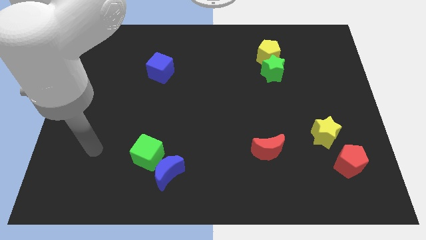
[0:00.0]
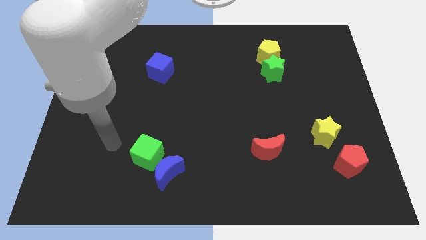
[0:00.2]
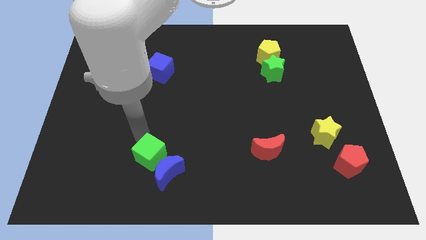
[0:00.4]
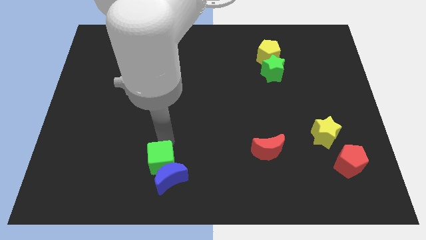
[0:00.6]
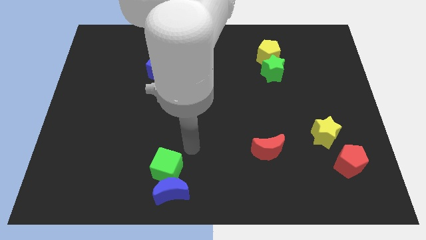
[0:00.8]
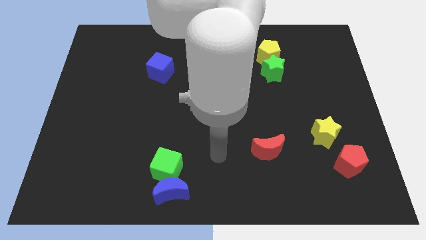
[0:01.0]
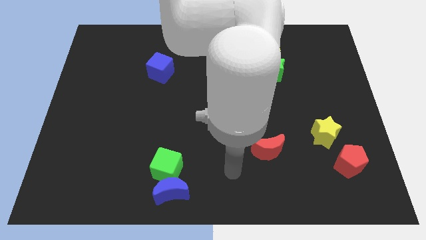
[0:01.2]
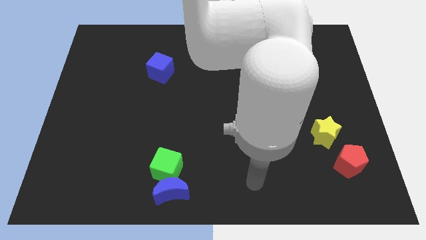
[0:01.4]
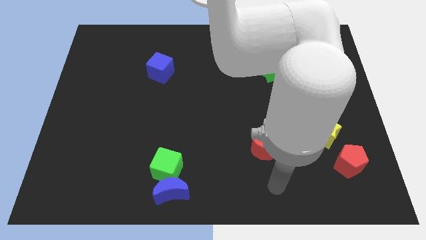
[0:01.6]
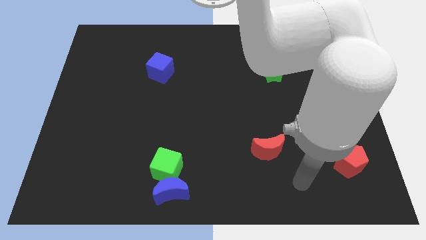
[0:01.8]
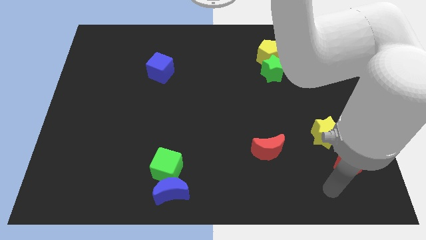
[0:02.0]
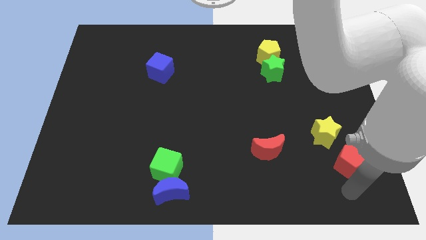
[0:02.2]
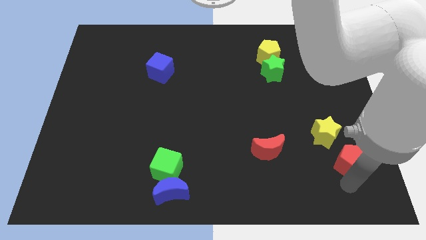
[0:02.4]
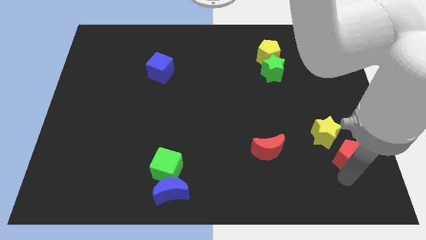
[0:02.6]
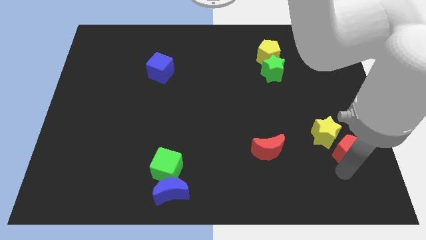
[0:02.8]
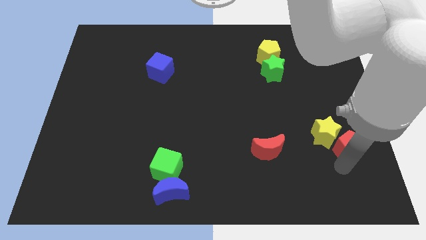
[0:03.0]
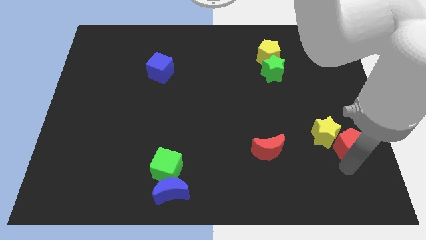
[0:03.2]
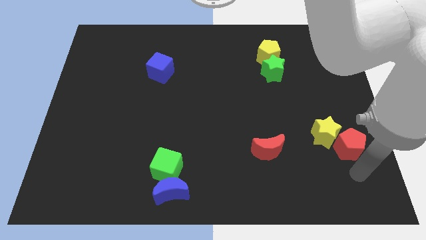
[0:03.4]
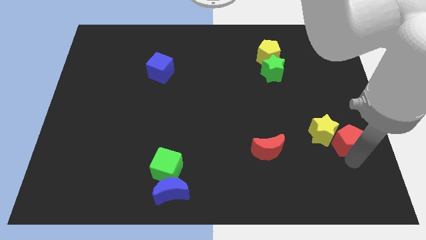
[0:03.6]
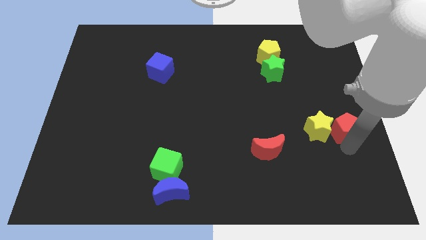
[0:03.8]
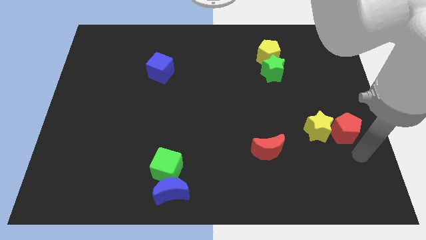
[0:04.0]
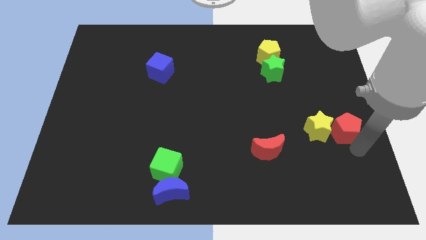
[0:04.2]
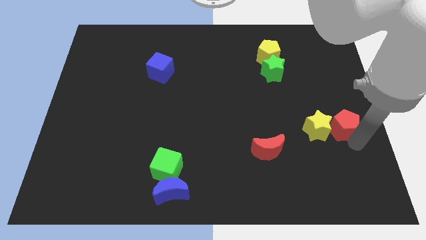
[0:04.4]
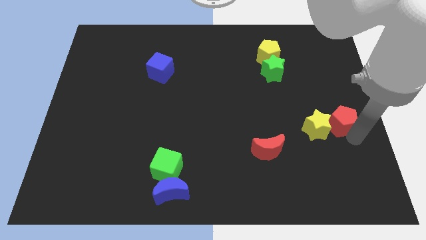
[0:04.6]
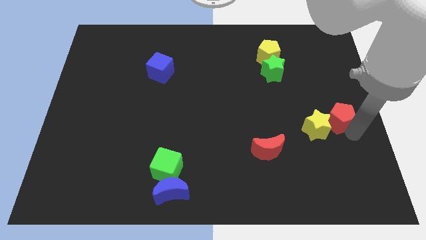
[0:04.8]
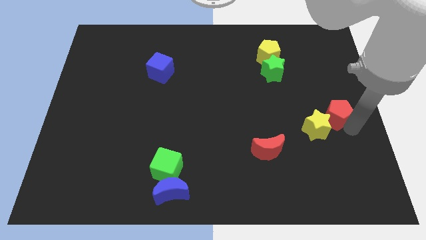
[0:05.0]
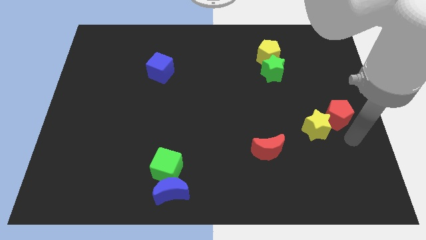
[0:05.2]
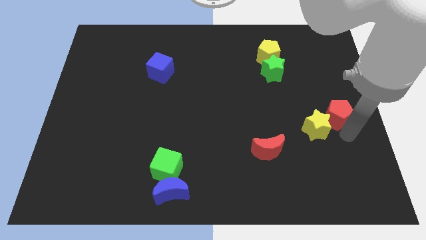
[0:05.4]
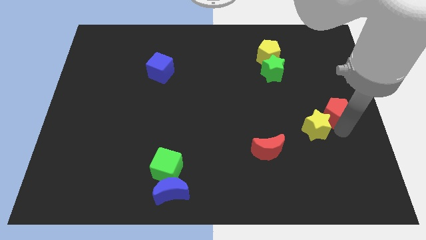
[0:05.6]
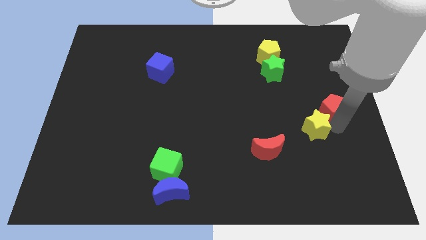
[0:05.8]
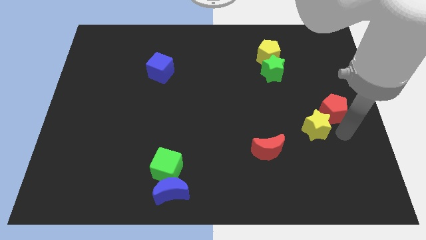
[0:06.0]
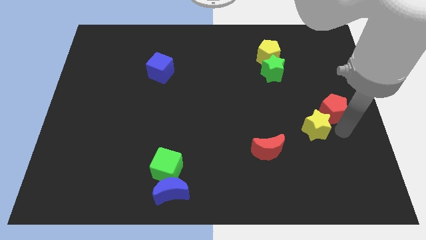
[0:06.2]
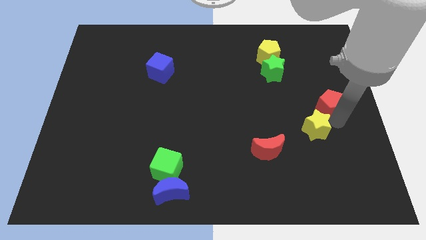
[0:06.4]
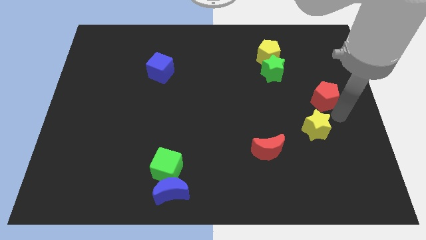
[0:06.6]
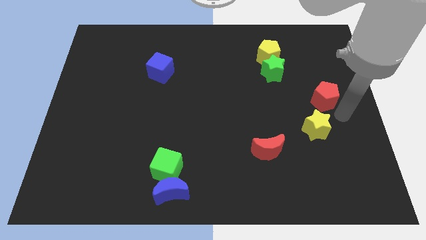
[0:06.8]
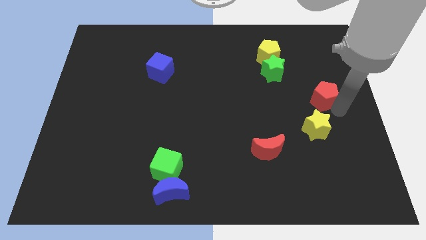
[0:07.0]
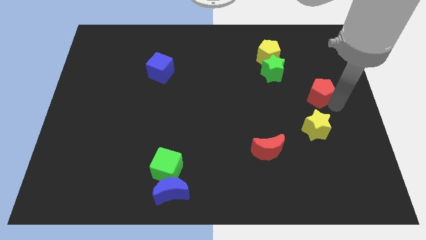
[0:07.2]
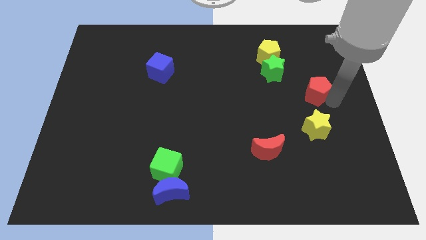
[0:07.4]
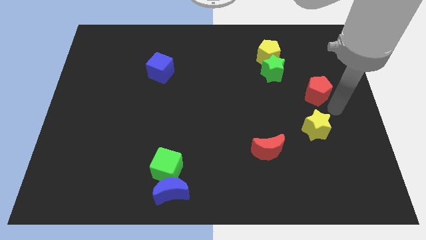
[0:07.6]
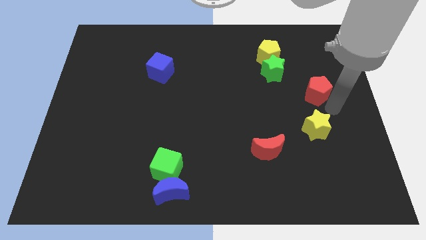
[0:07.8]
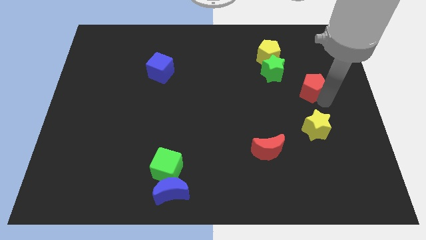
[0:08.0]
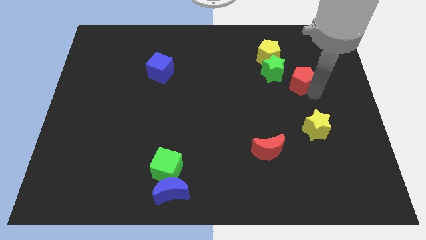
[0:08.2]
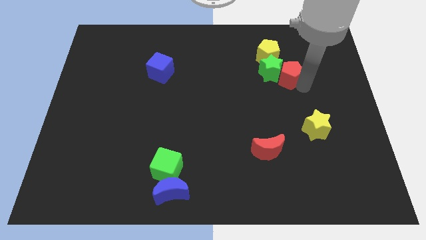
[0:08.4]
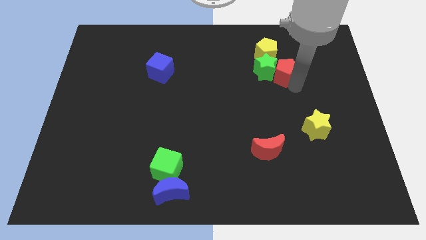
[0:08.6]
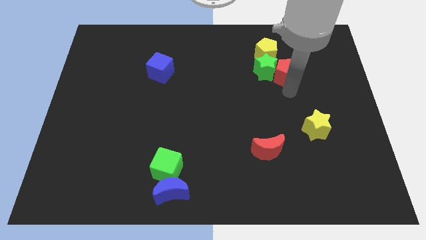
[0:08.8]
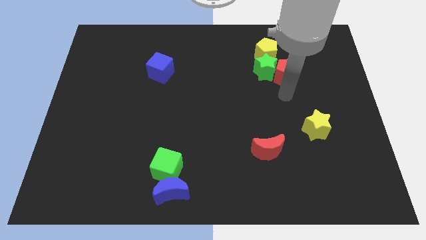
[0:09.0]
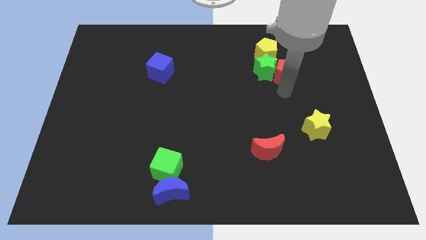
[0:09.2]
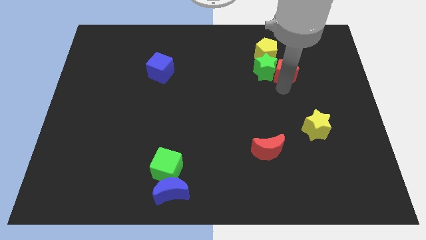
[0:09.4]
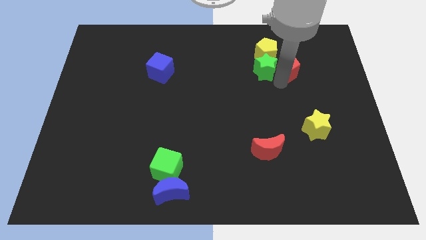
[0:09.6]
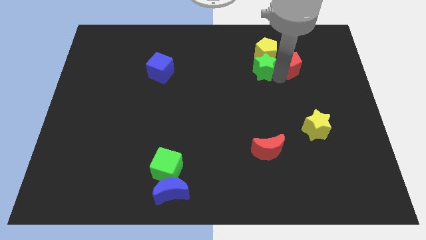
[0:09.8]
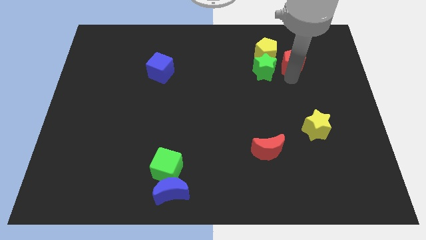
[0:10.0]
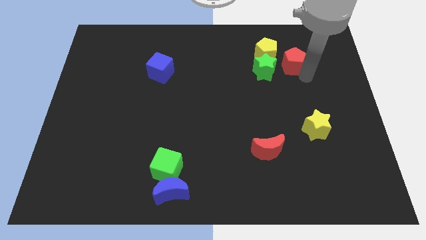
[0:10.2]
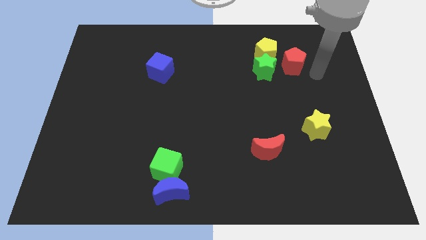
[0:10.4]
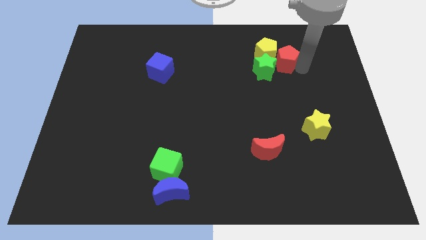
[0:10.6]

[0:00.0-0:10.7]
move the red pentagon next to the yellow pentagon

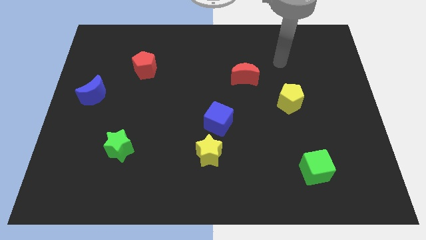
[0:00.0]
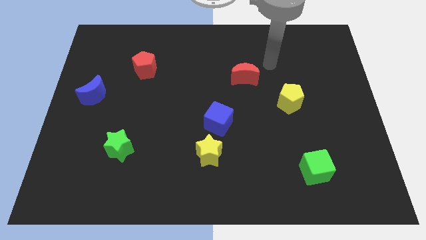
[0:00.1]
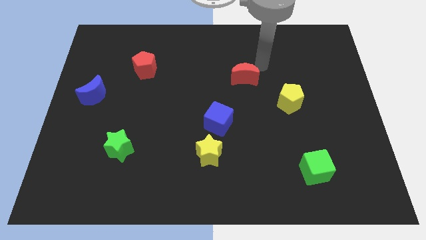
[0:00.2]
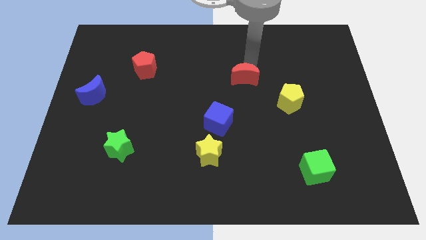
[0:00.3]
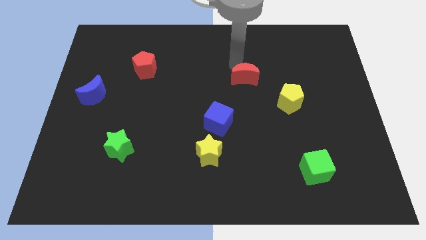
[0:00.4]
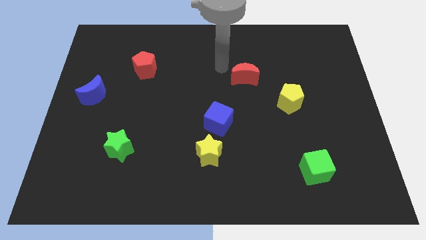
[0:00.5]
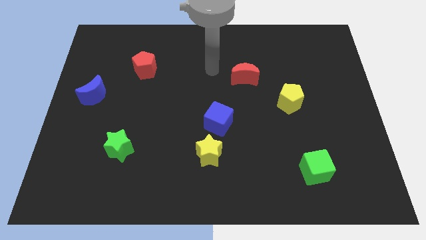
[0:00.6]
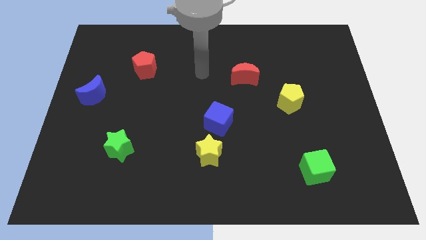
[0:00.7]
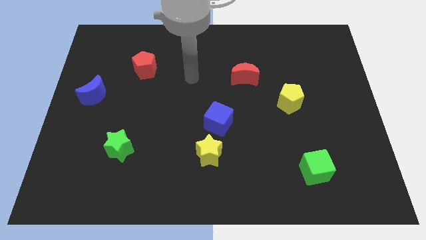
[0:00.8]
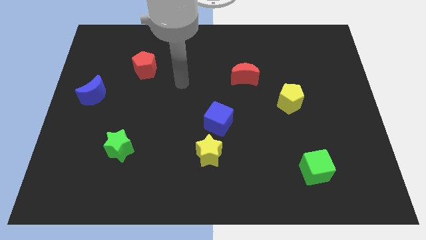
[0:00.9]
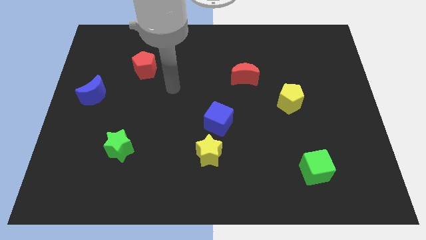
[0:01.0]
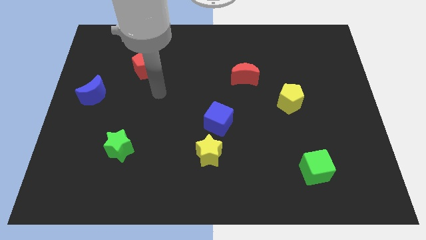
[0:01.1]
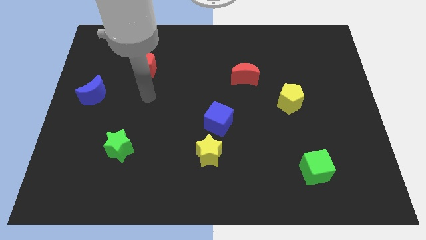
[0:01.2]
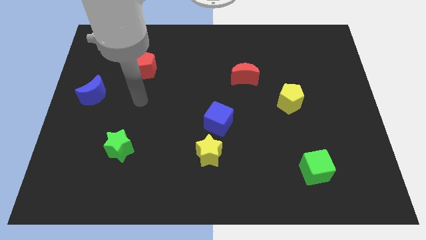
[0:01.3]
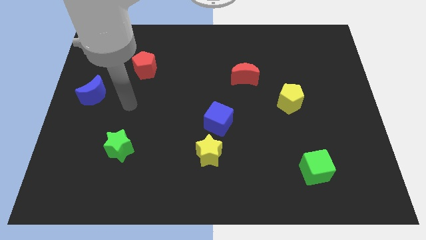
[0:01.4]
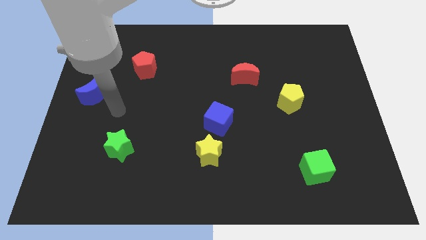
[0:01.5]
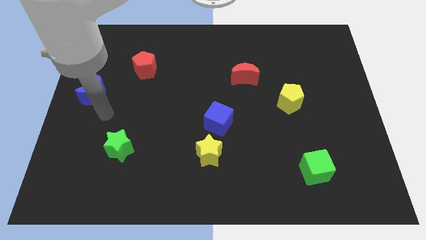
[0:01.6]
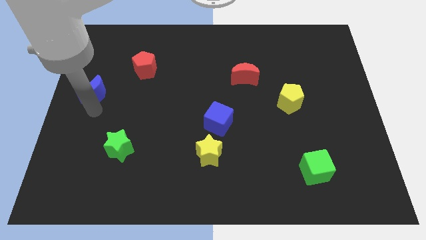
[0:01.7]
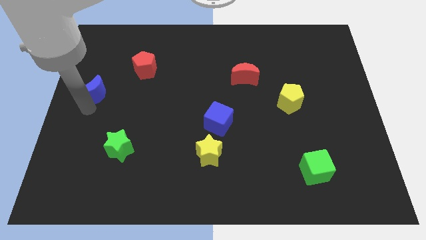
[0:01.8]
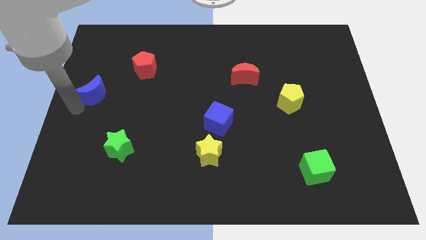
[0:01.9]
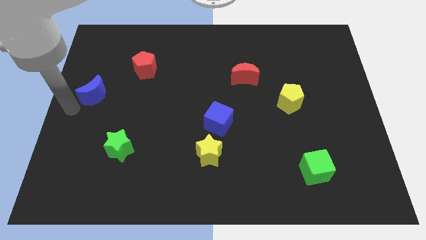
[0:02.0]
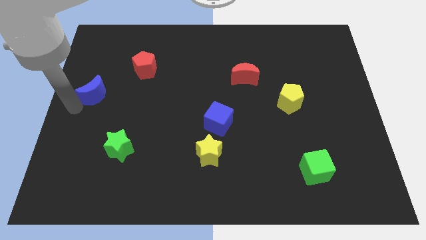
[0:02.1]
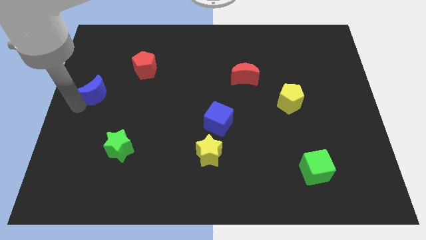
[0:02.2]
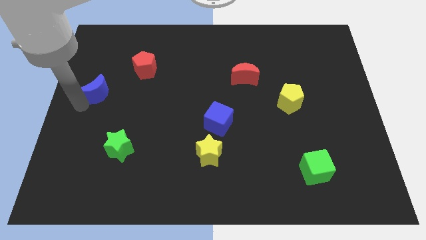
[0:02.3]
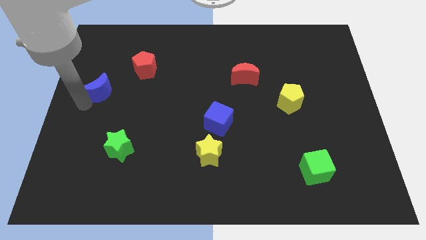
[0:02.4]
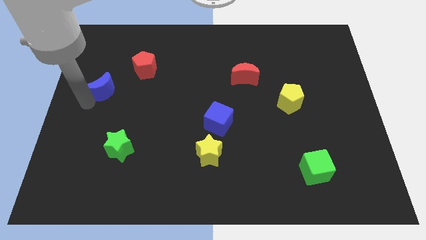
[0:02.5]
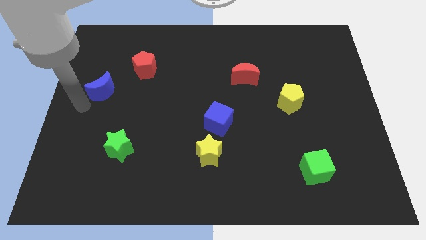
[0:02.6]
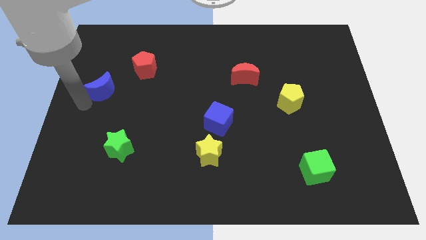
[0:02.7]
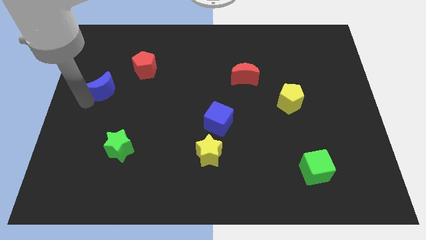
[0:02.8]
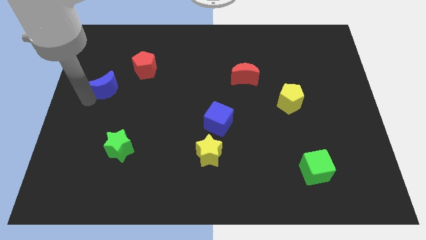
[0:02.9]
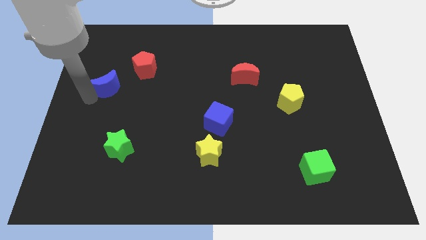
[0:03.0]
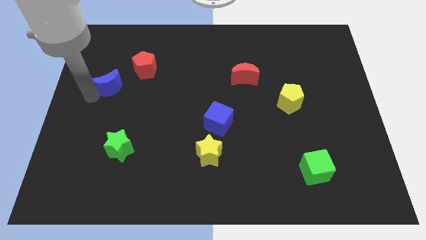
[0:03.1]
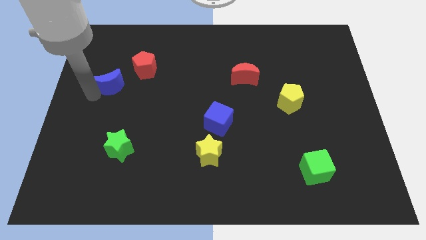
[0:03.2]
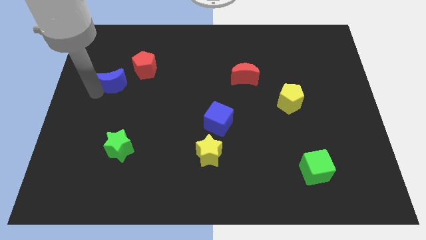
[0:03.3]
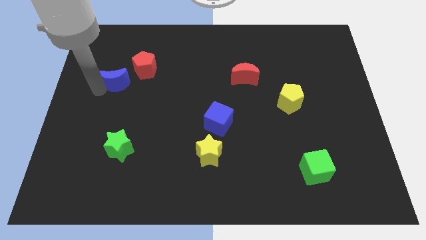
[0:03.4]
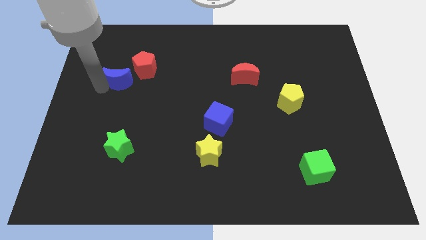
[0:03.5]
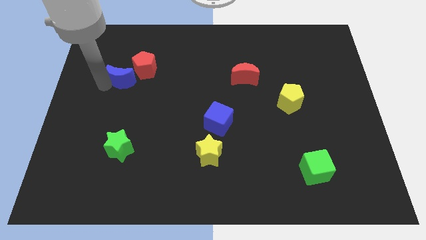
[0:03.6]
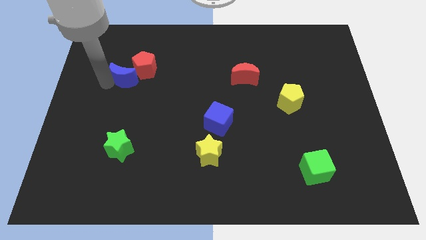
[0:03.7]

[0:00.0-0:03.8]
put the blue moon to the red pentagon
